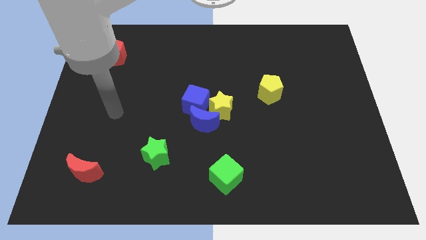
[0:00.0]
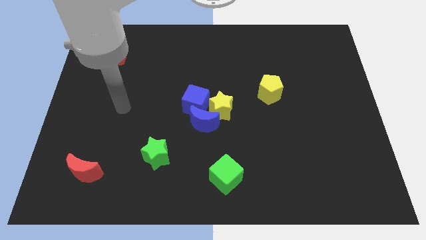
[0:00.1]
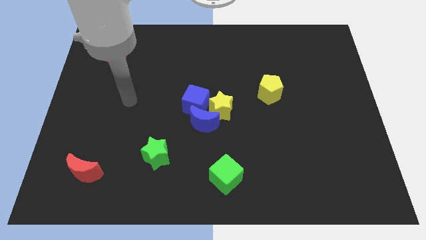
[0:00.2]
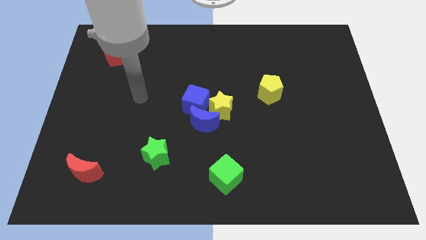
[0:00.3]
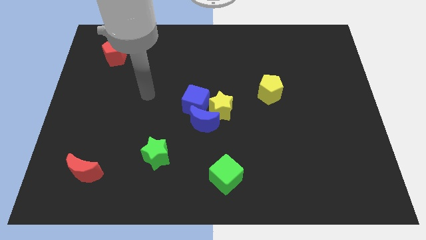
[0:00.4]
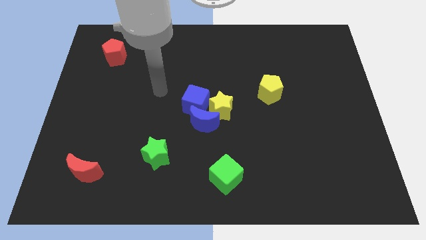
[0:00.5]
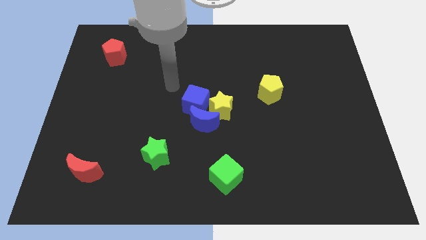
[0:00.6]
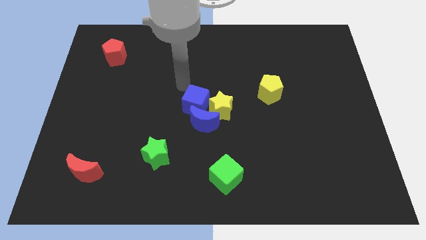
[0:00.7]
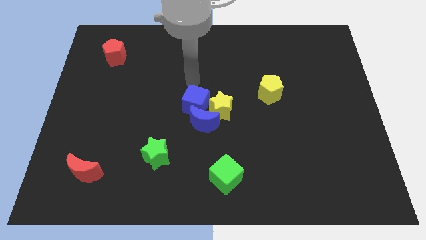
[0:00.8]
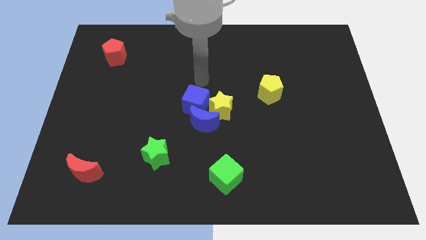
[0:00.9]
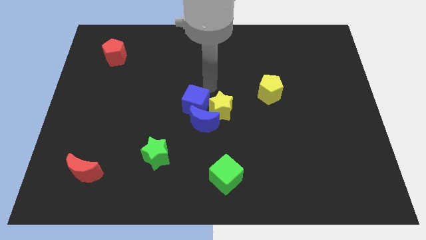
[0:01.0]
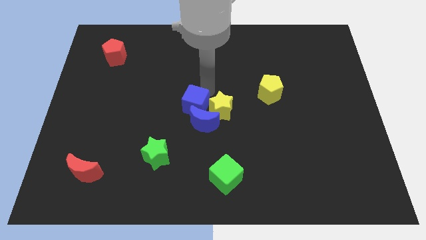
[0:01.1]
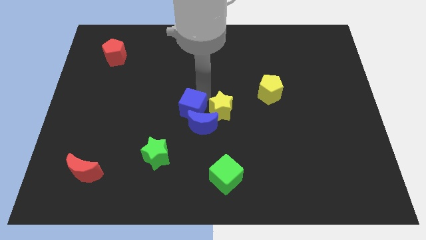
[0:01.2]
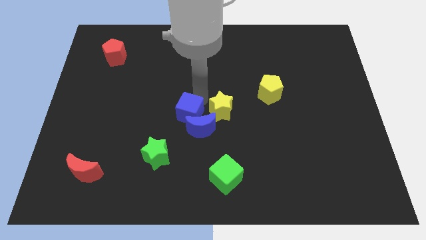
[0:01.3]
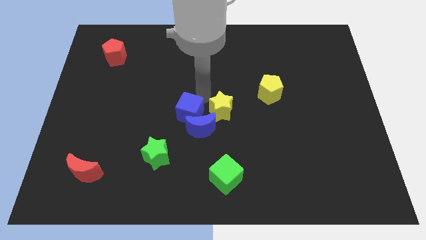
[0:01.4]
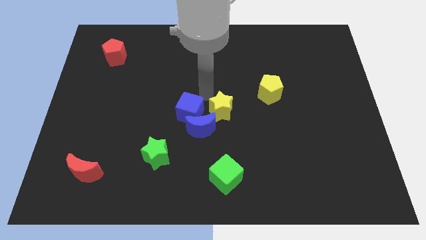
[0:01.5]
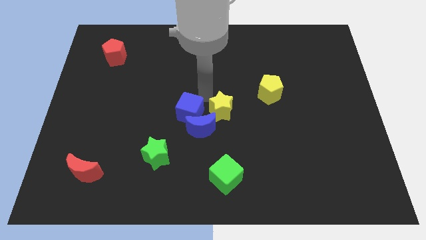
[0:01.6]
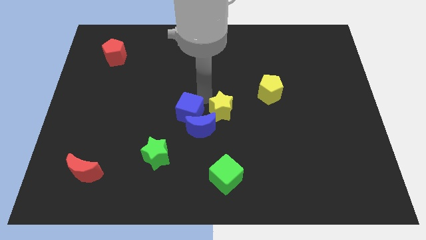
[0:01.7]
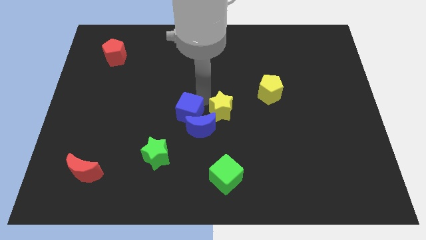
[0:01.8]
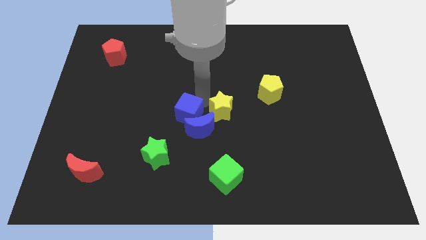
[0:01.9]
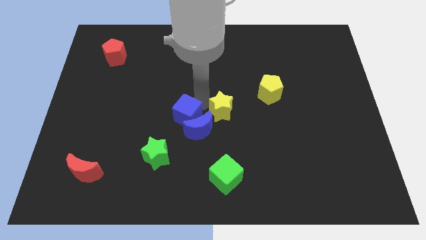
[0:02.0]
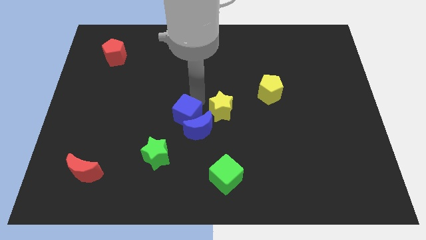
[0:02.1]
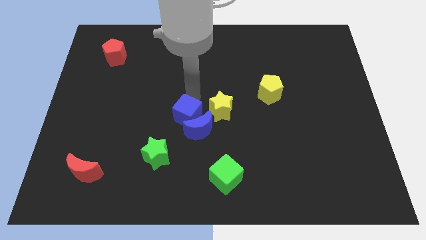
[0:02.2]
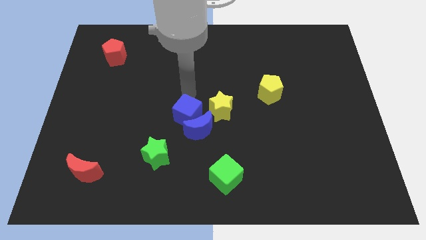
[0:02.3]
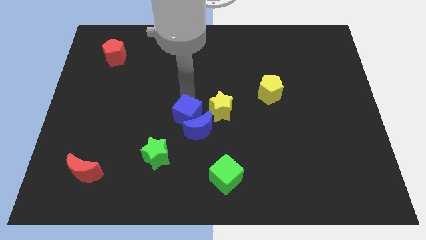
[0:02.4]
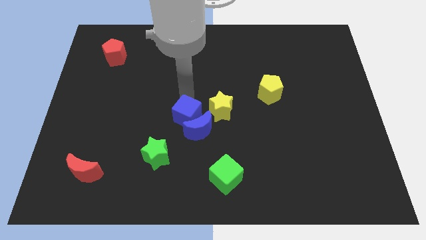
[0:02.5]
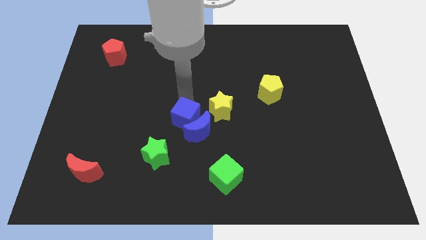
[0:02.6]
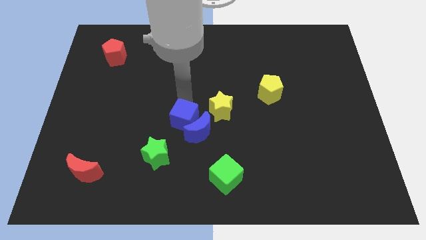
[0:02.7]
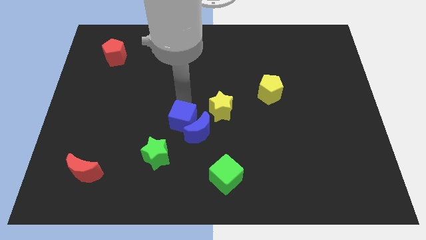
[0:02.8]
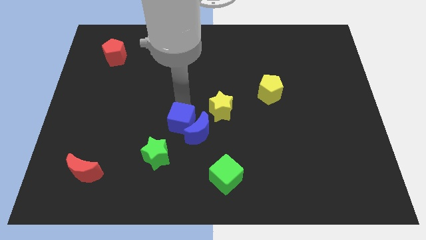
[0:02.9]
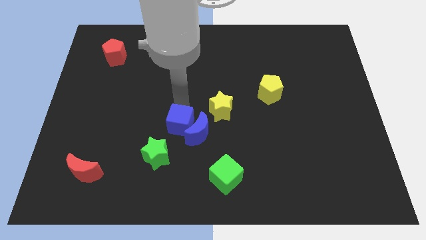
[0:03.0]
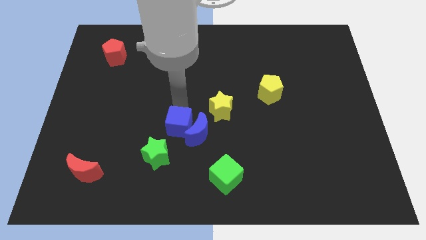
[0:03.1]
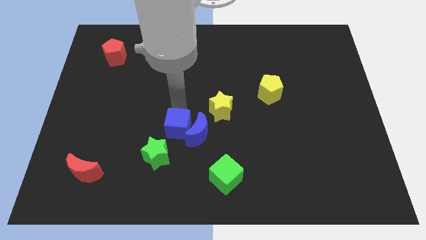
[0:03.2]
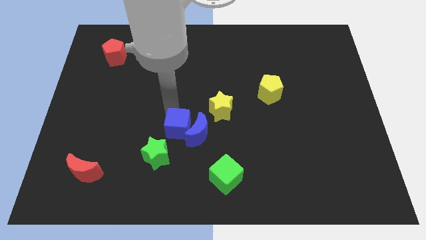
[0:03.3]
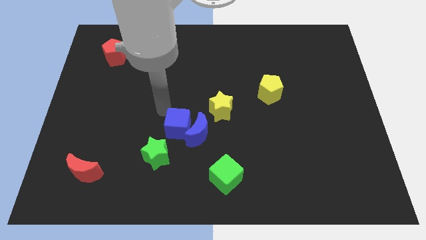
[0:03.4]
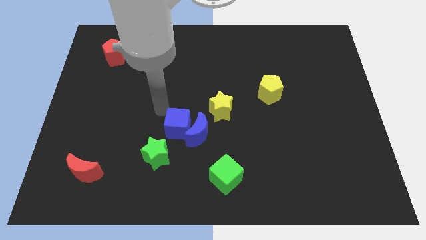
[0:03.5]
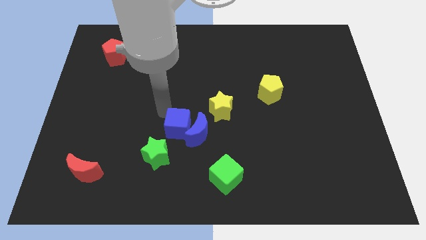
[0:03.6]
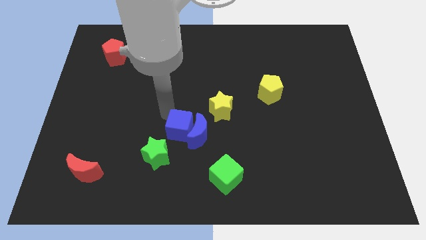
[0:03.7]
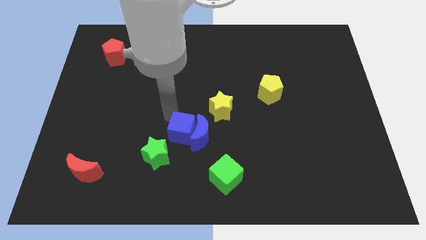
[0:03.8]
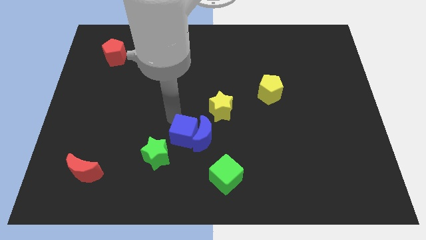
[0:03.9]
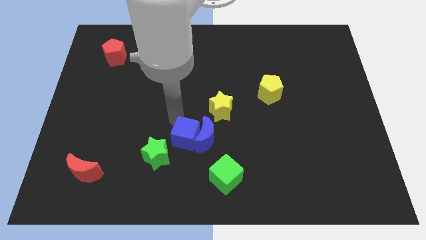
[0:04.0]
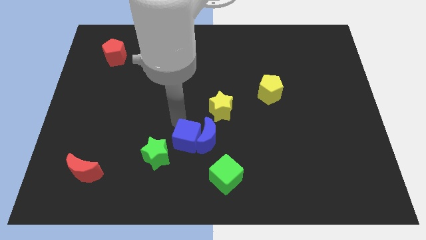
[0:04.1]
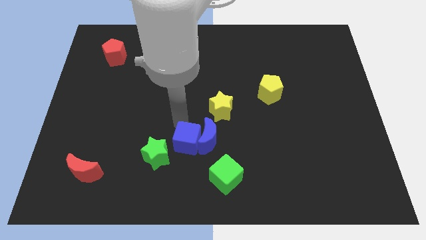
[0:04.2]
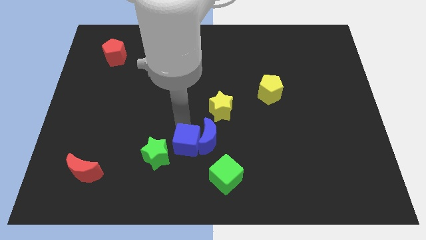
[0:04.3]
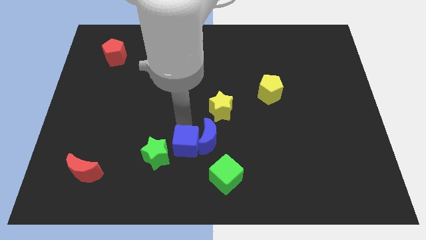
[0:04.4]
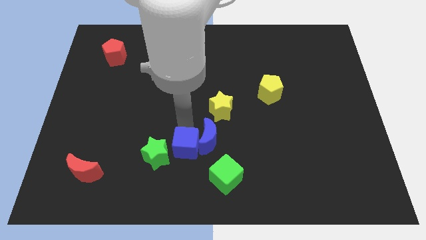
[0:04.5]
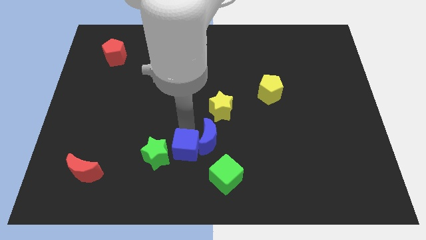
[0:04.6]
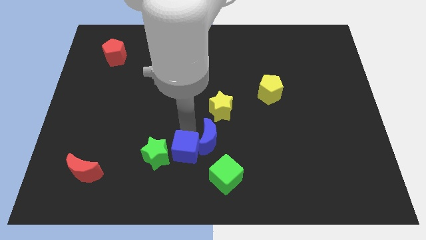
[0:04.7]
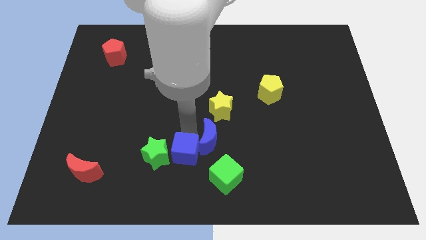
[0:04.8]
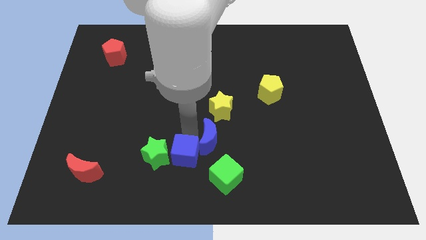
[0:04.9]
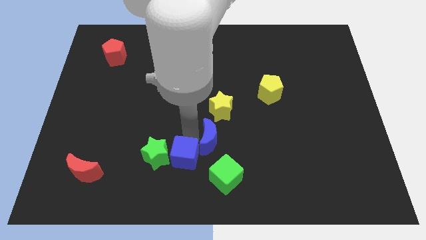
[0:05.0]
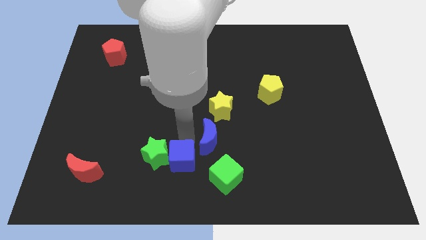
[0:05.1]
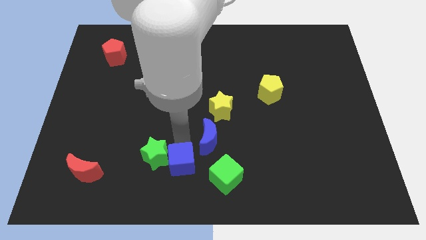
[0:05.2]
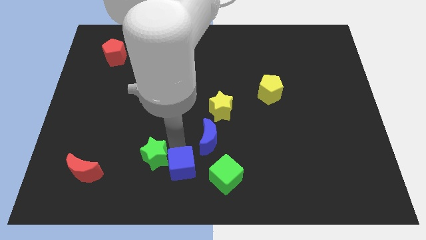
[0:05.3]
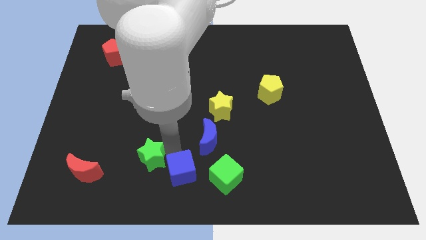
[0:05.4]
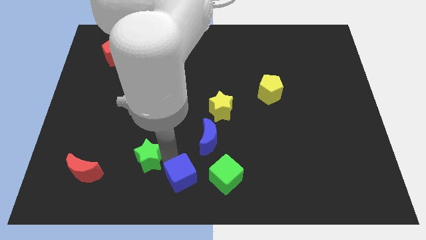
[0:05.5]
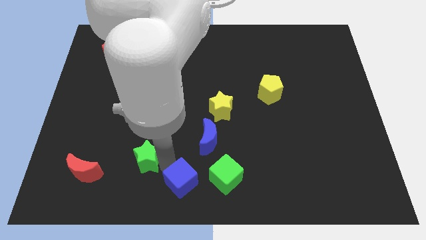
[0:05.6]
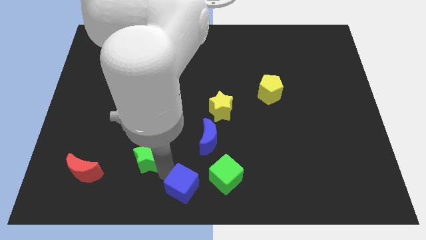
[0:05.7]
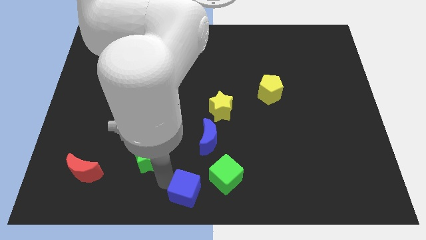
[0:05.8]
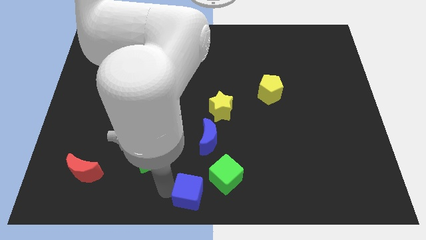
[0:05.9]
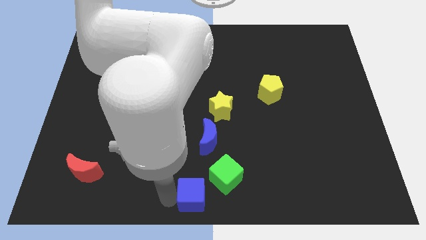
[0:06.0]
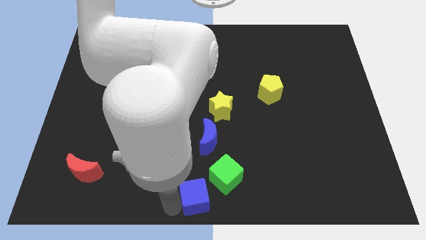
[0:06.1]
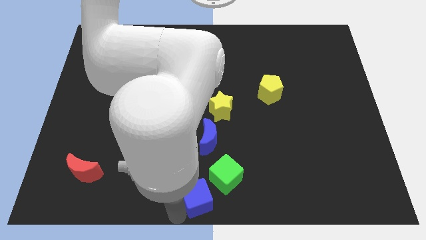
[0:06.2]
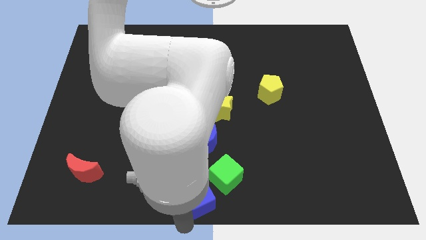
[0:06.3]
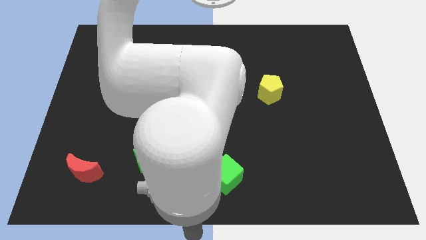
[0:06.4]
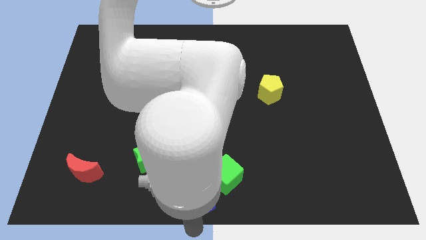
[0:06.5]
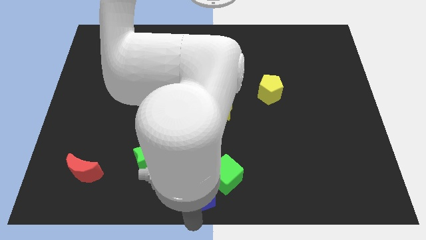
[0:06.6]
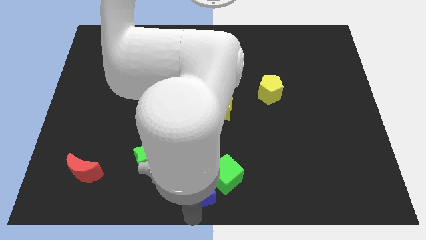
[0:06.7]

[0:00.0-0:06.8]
put the blue cube to the green cube

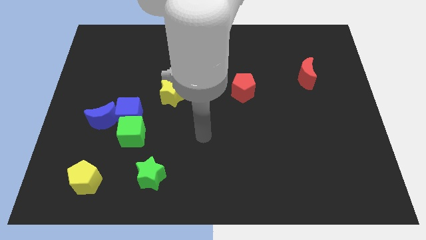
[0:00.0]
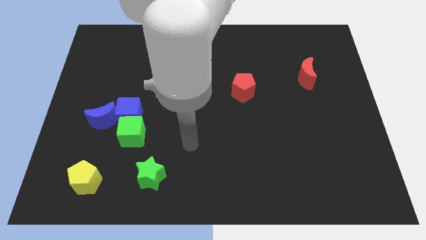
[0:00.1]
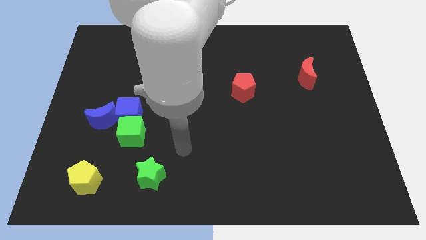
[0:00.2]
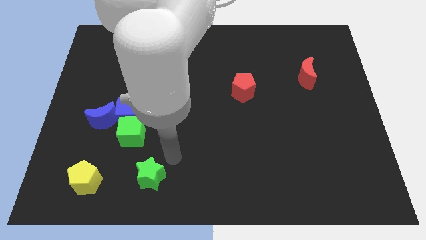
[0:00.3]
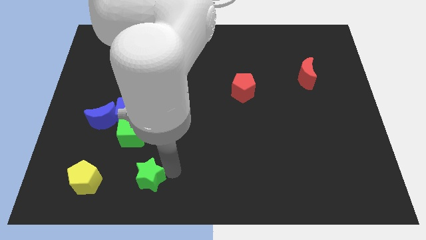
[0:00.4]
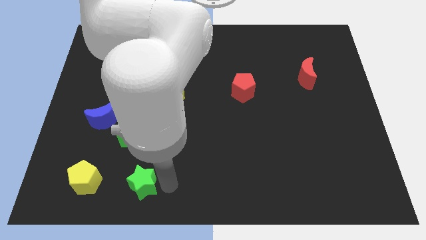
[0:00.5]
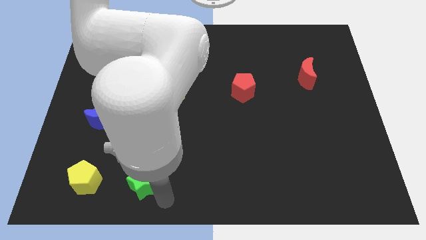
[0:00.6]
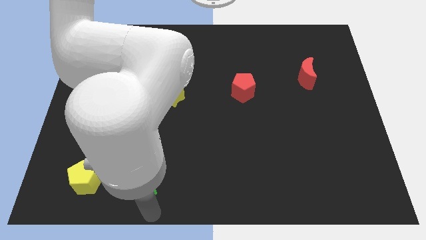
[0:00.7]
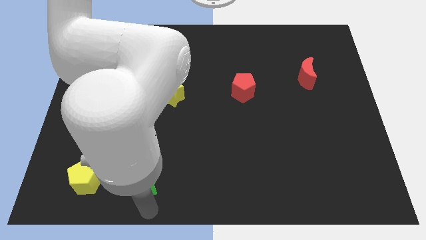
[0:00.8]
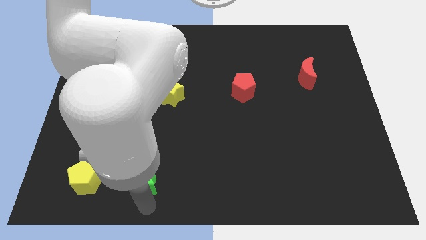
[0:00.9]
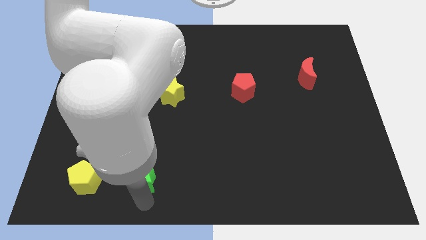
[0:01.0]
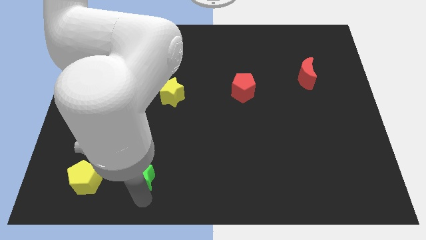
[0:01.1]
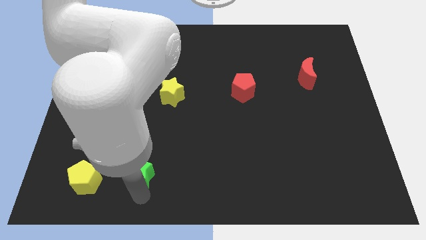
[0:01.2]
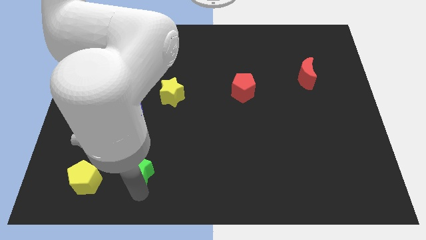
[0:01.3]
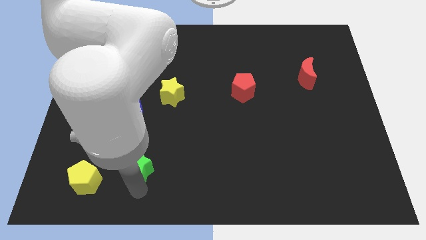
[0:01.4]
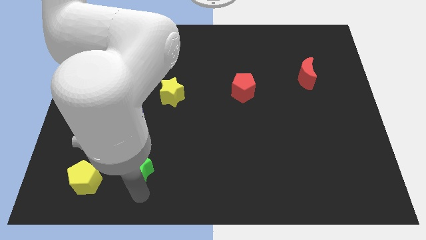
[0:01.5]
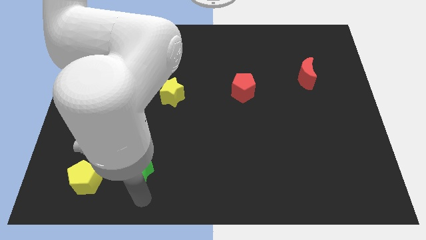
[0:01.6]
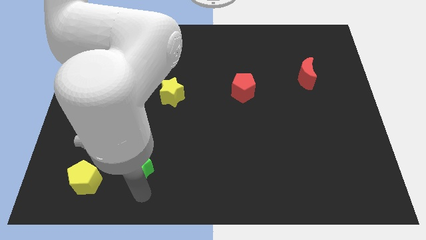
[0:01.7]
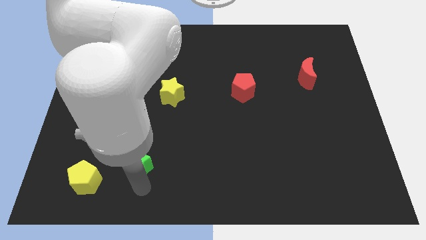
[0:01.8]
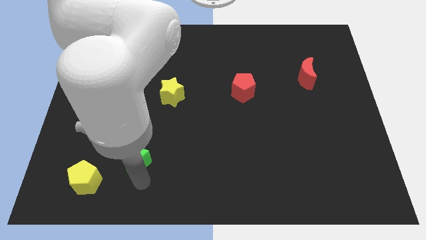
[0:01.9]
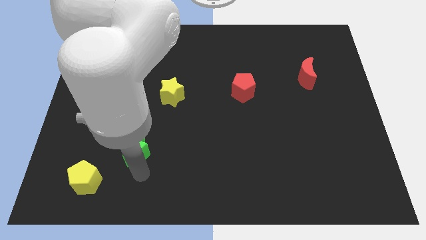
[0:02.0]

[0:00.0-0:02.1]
move the green star next to the green cube
